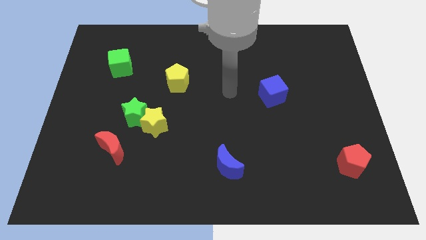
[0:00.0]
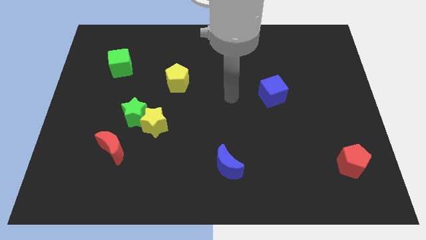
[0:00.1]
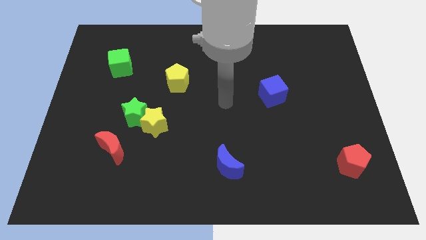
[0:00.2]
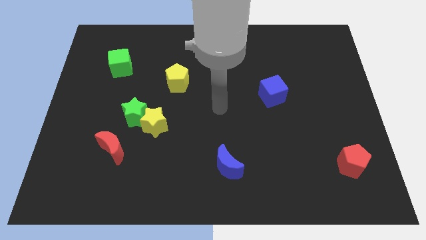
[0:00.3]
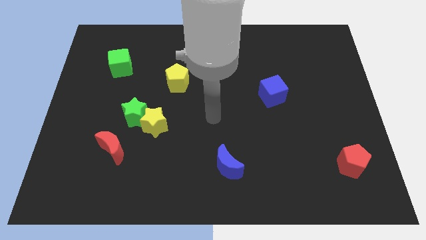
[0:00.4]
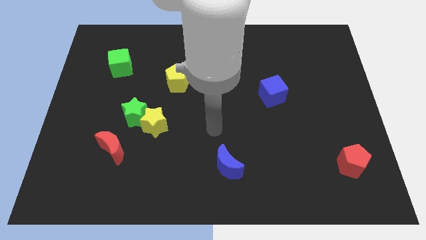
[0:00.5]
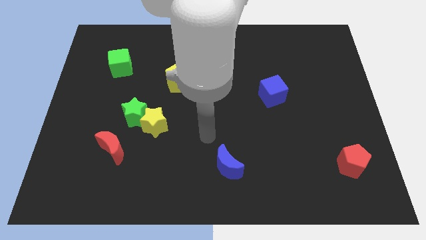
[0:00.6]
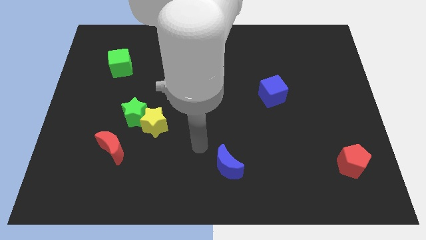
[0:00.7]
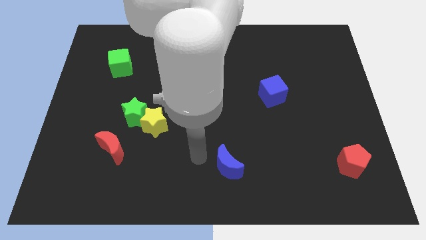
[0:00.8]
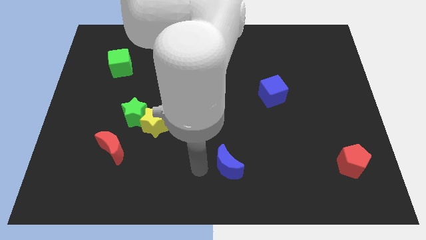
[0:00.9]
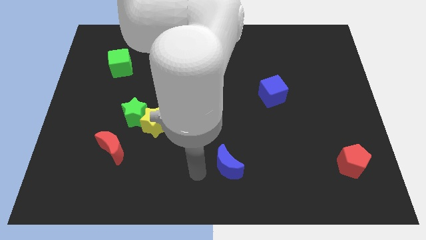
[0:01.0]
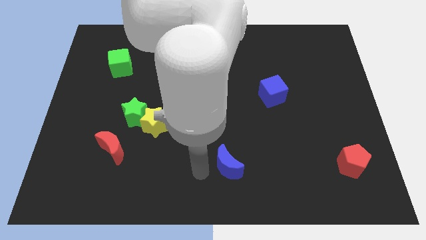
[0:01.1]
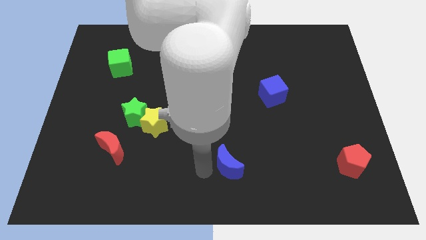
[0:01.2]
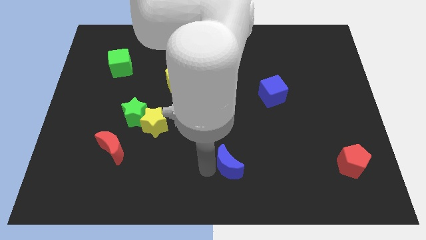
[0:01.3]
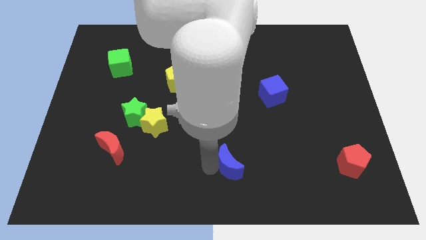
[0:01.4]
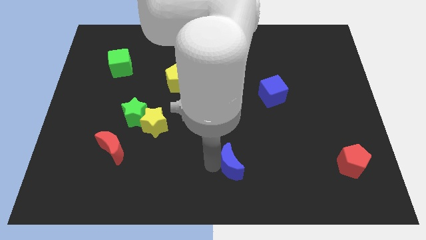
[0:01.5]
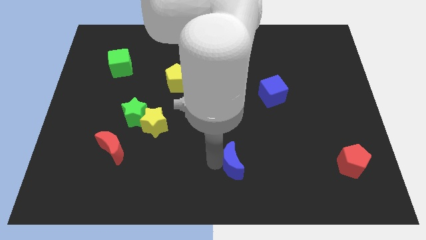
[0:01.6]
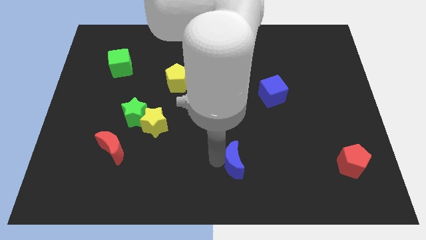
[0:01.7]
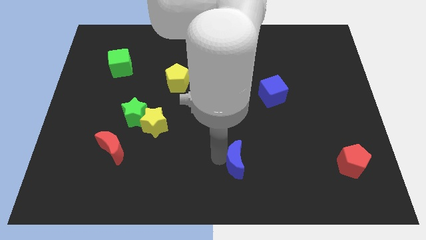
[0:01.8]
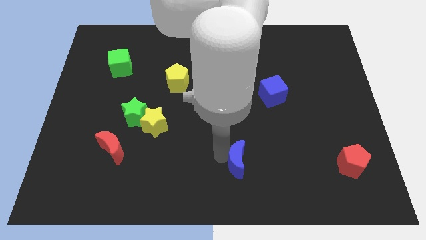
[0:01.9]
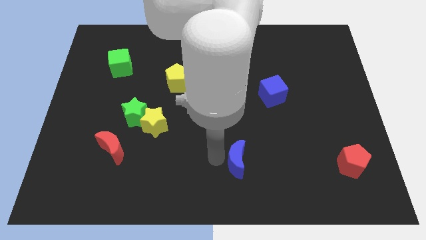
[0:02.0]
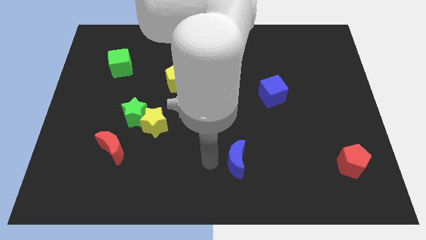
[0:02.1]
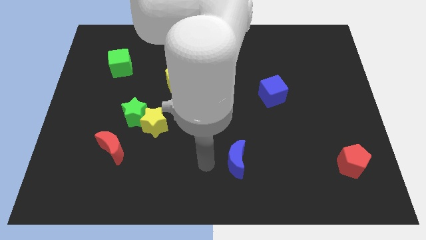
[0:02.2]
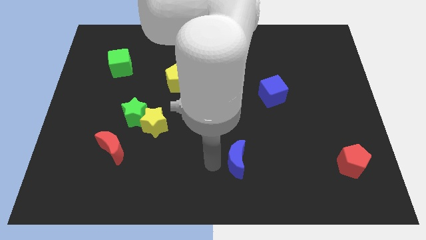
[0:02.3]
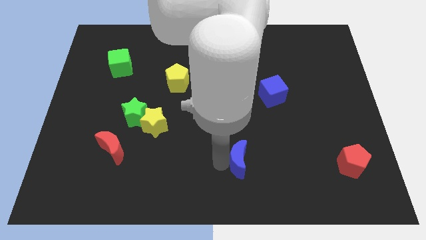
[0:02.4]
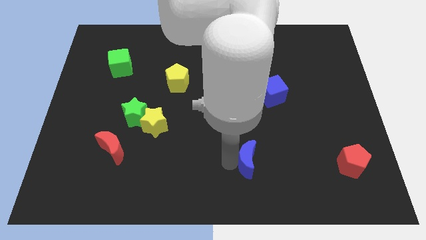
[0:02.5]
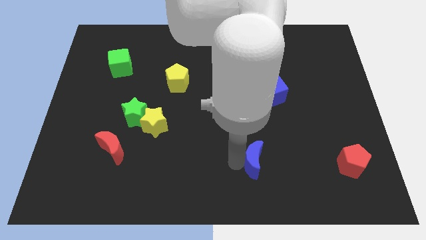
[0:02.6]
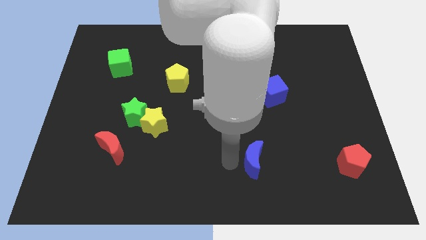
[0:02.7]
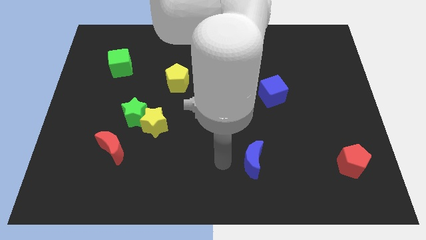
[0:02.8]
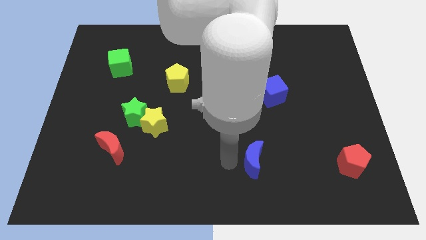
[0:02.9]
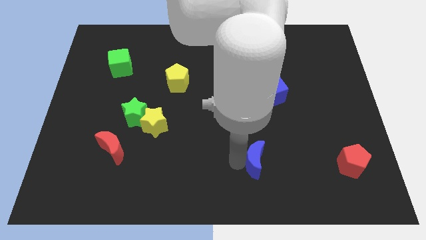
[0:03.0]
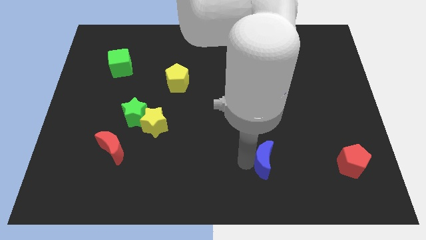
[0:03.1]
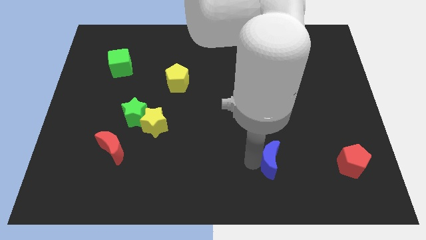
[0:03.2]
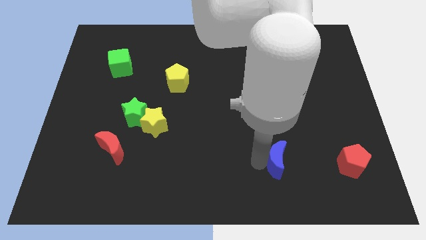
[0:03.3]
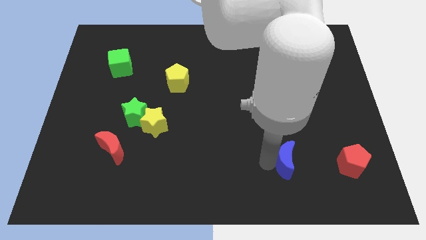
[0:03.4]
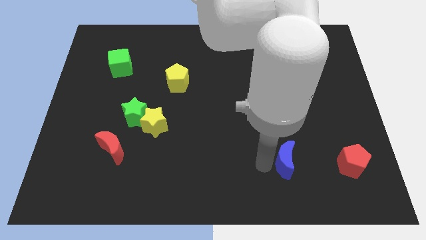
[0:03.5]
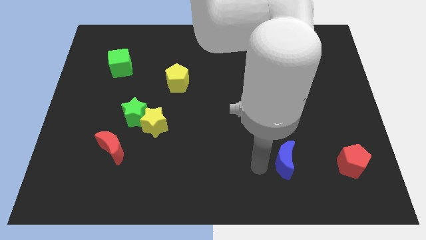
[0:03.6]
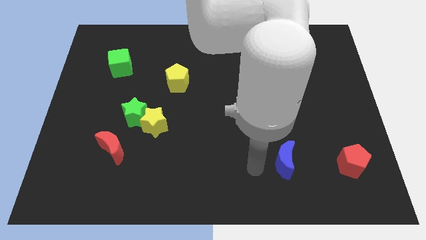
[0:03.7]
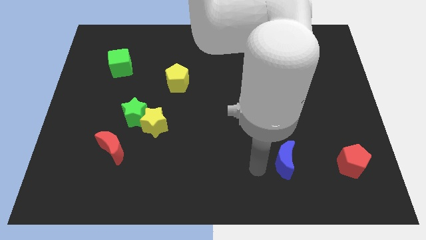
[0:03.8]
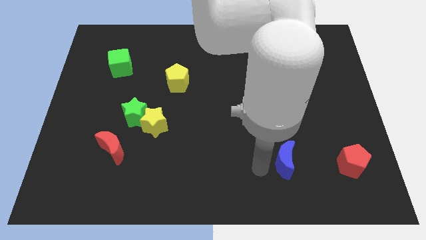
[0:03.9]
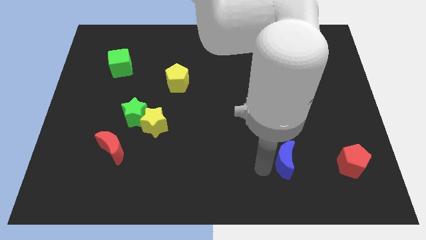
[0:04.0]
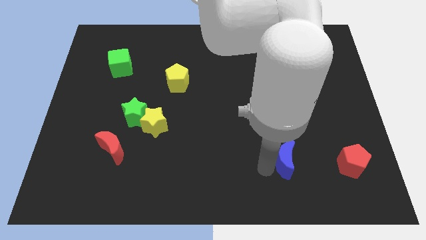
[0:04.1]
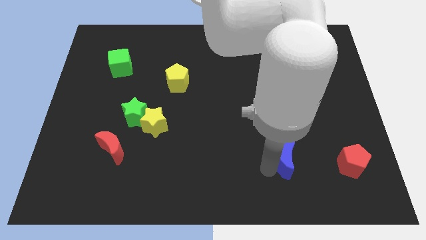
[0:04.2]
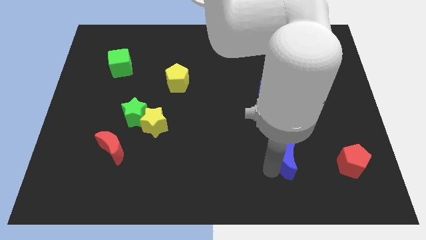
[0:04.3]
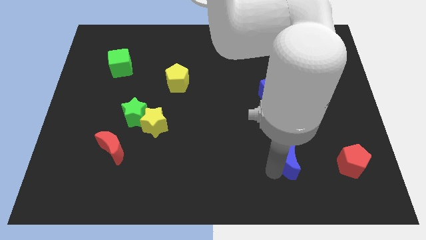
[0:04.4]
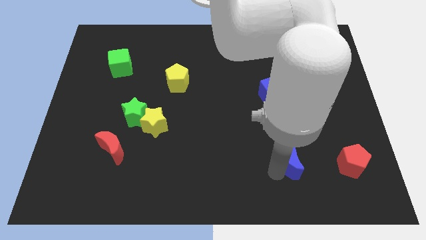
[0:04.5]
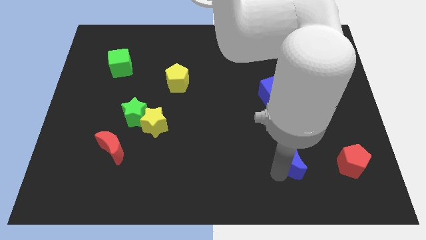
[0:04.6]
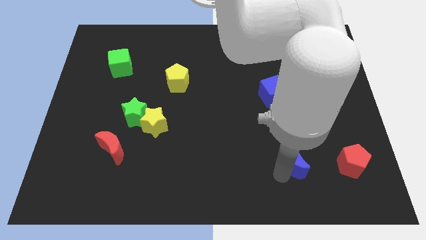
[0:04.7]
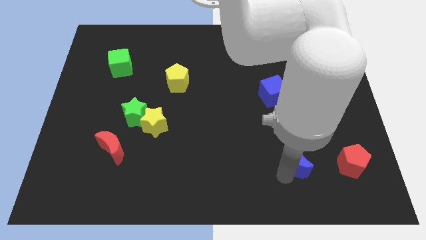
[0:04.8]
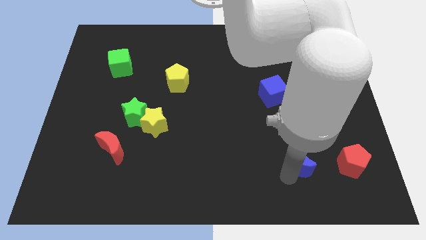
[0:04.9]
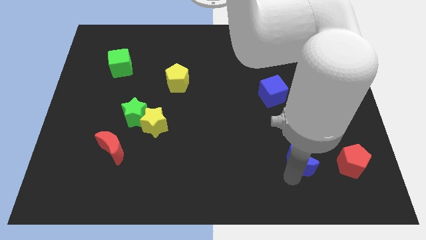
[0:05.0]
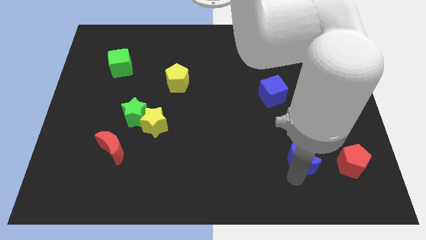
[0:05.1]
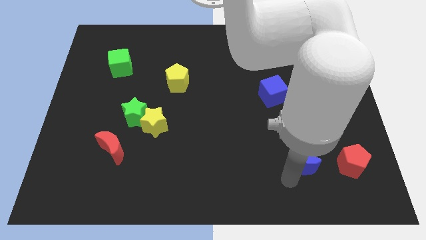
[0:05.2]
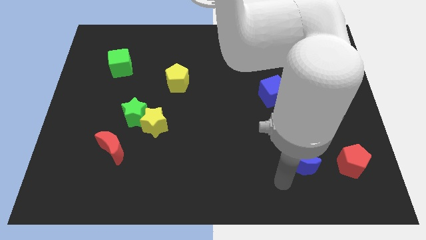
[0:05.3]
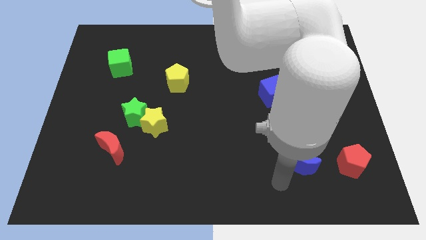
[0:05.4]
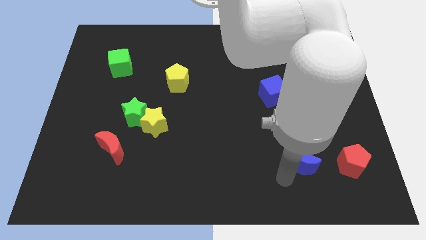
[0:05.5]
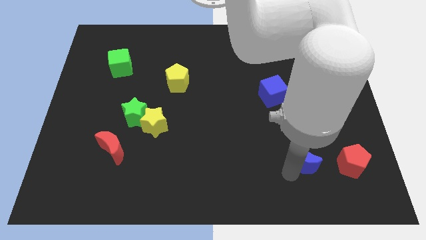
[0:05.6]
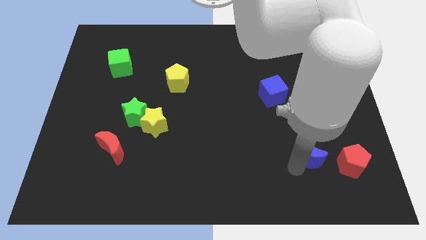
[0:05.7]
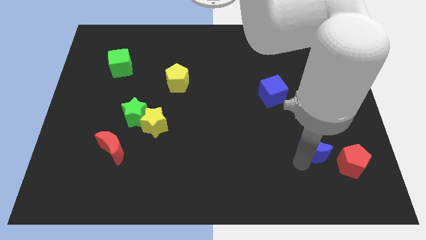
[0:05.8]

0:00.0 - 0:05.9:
push the blue moon to the top left of the red pentagon

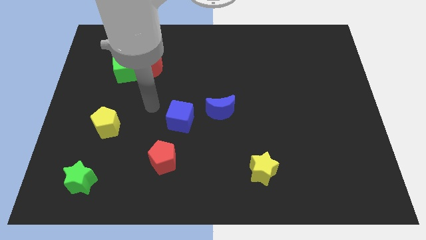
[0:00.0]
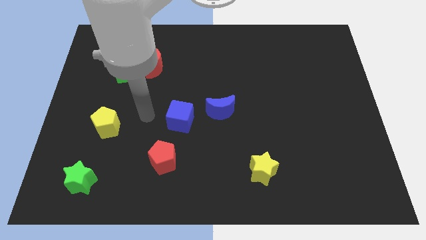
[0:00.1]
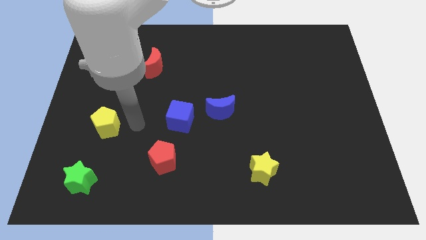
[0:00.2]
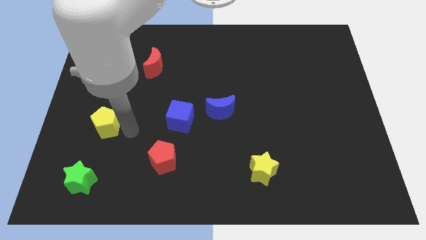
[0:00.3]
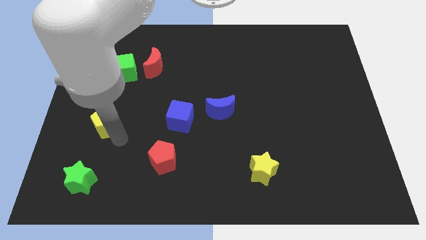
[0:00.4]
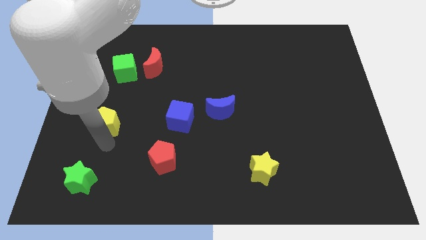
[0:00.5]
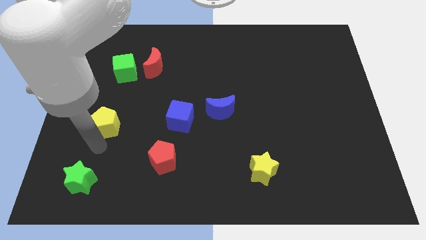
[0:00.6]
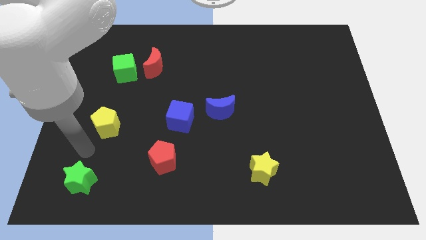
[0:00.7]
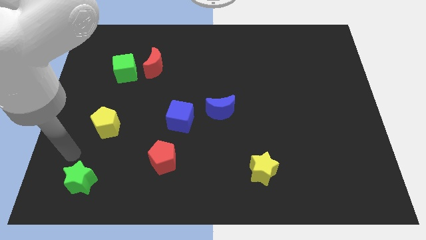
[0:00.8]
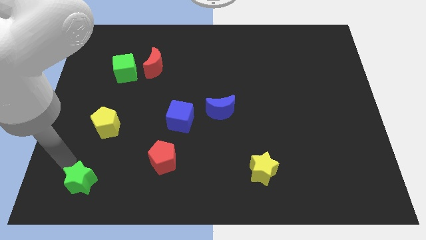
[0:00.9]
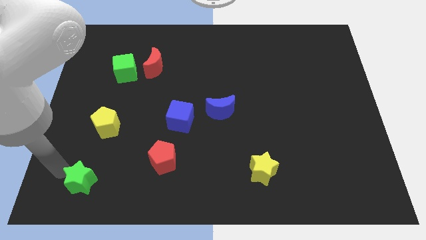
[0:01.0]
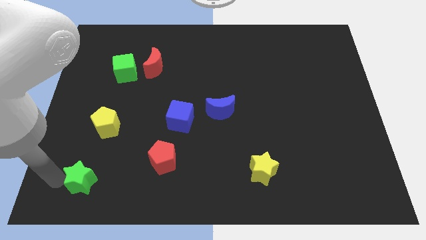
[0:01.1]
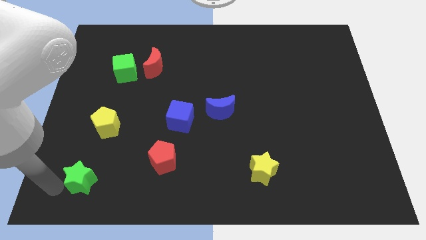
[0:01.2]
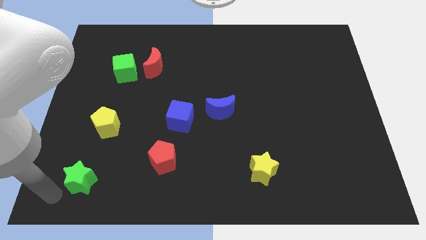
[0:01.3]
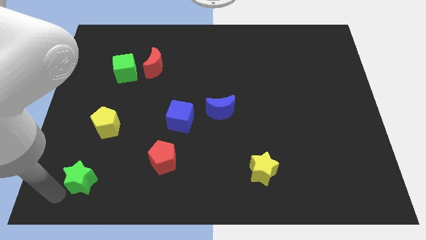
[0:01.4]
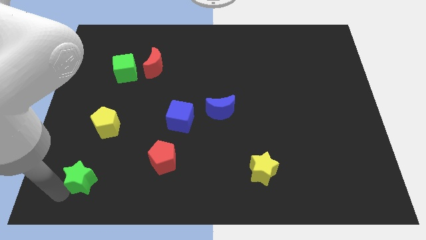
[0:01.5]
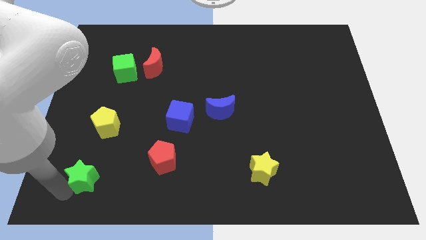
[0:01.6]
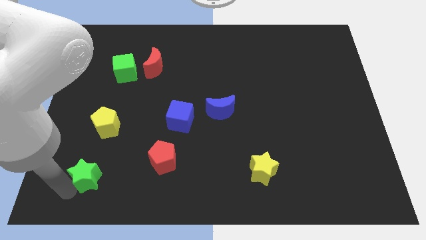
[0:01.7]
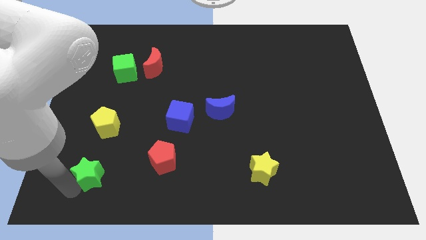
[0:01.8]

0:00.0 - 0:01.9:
slide the green star to the left side of the red pentagon
